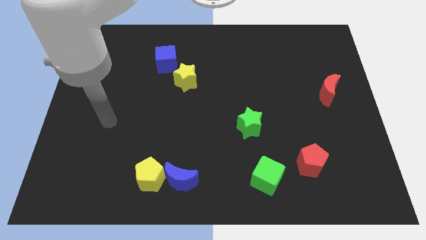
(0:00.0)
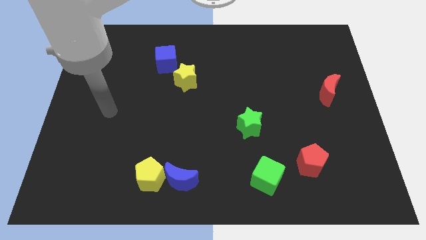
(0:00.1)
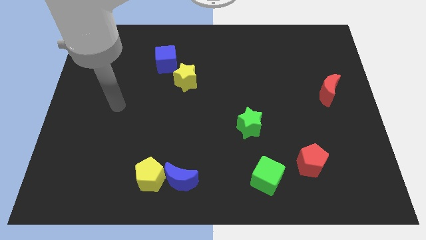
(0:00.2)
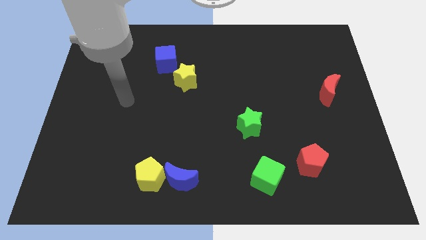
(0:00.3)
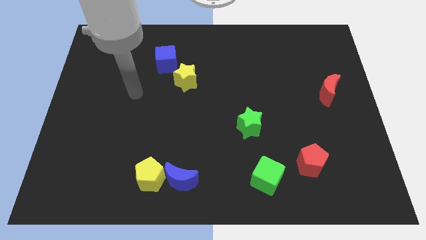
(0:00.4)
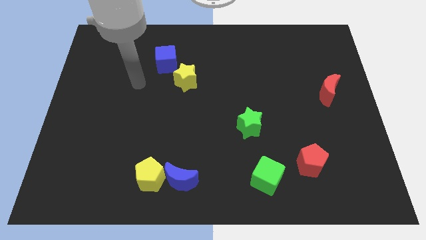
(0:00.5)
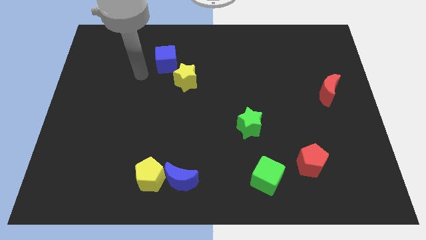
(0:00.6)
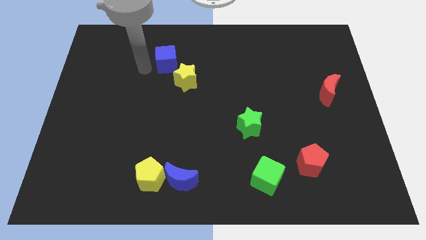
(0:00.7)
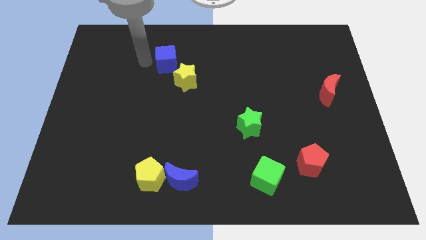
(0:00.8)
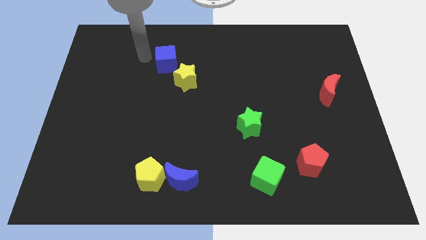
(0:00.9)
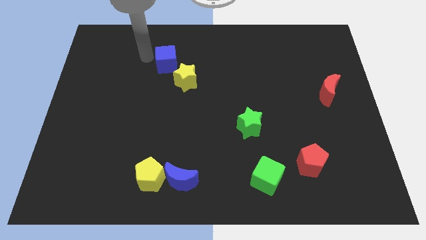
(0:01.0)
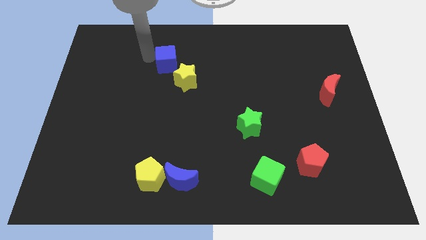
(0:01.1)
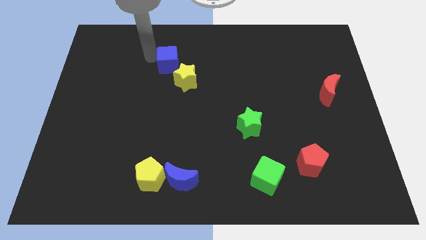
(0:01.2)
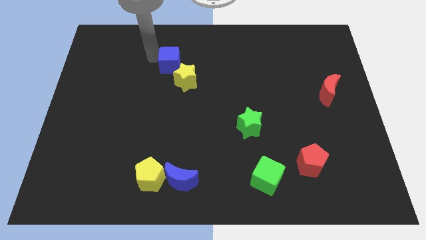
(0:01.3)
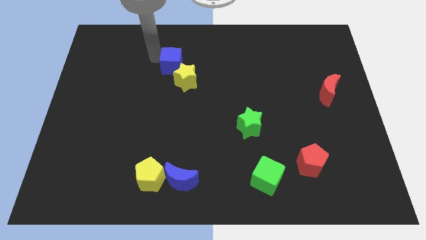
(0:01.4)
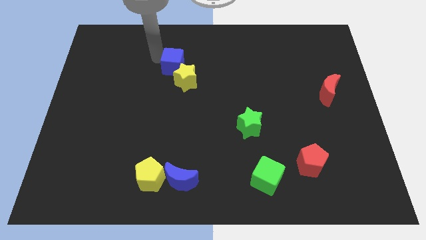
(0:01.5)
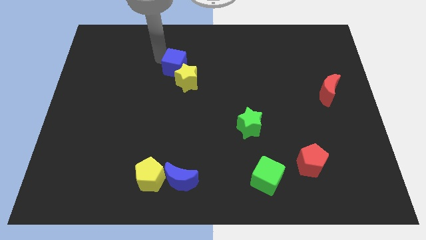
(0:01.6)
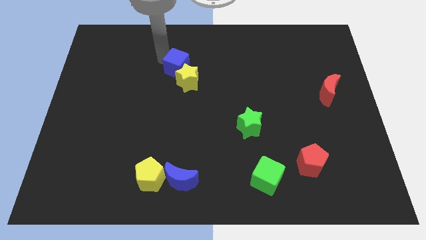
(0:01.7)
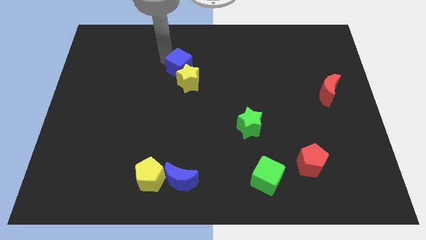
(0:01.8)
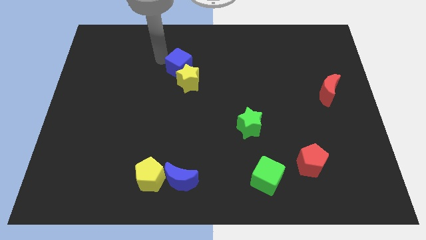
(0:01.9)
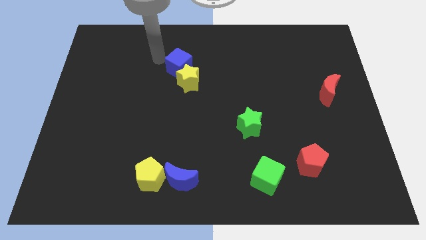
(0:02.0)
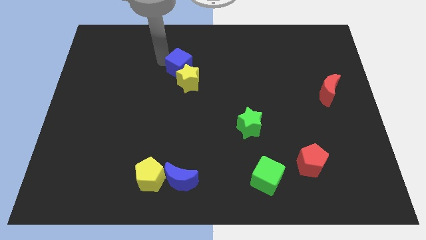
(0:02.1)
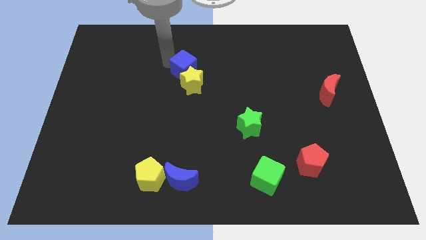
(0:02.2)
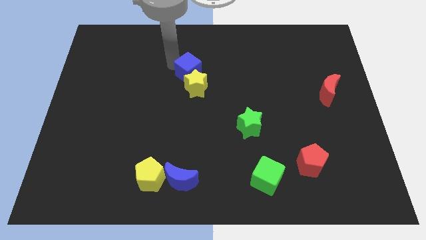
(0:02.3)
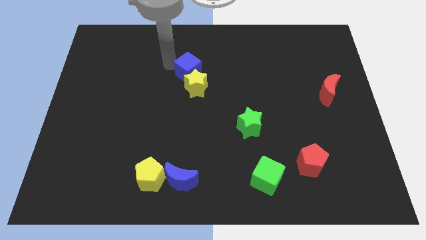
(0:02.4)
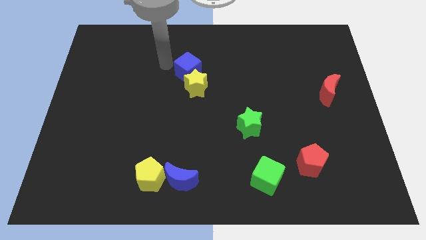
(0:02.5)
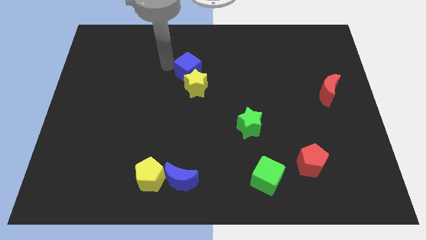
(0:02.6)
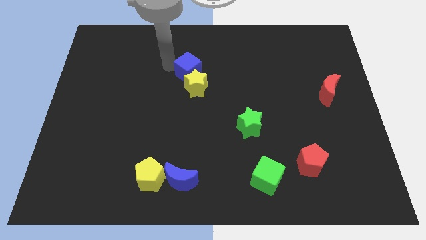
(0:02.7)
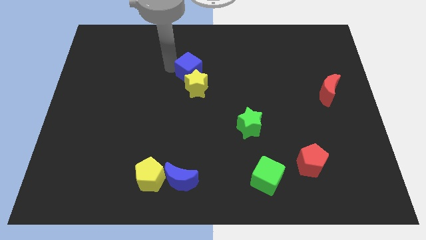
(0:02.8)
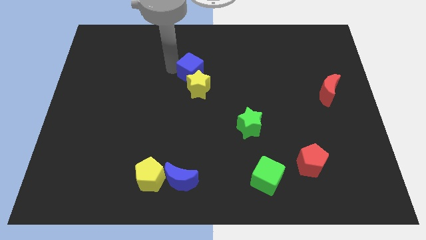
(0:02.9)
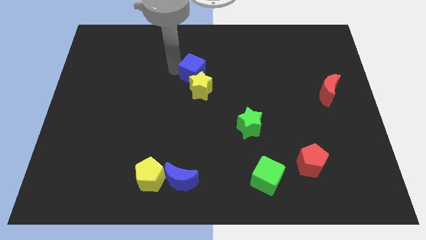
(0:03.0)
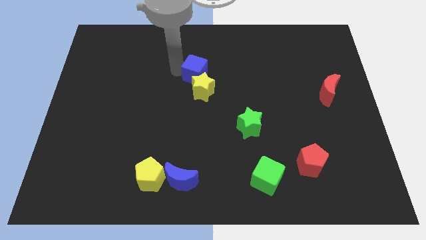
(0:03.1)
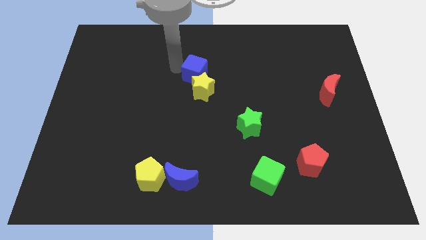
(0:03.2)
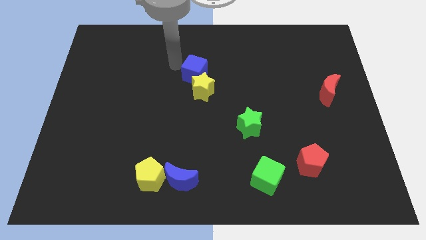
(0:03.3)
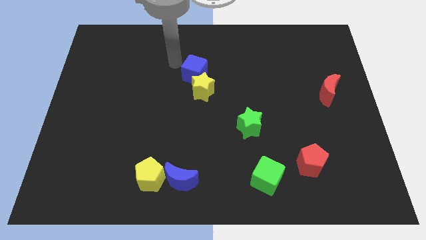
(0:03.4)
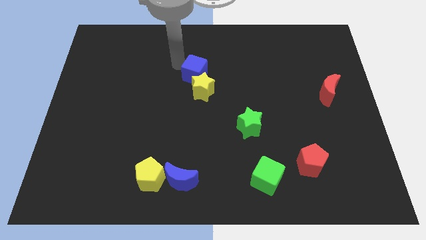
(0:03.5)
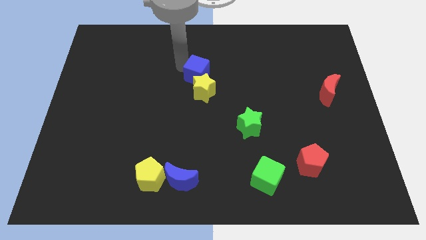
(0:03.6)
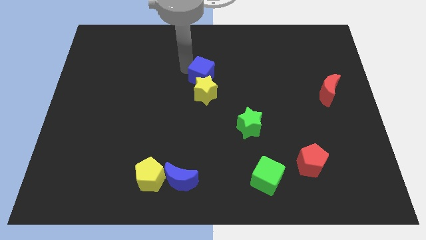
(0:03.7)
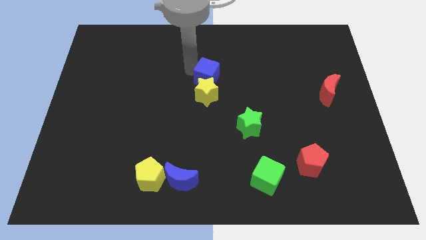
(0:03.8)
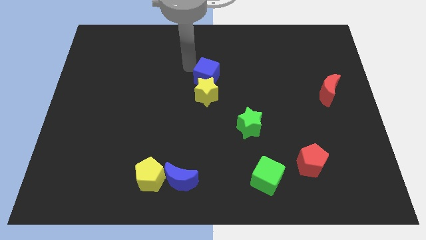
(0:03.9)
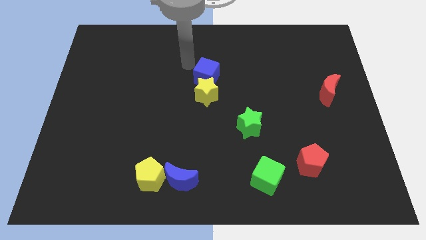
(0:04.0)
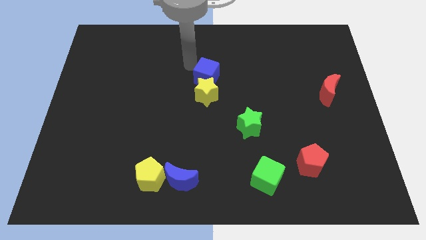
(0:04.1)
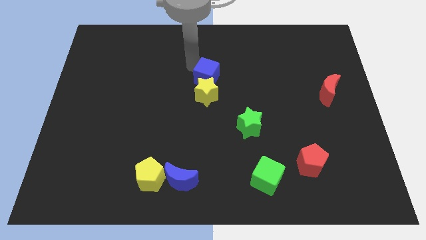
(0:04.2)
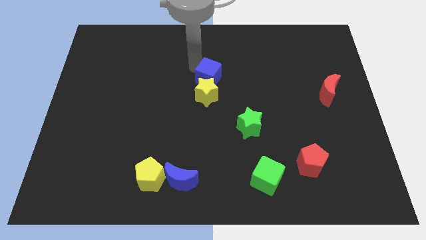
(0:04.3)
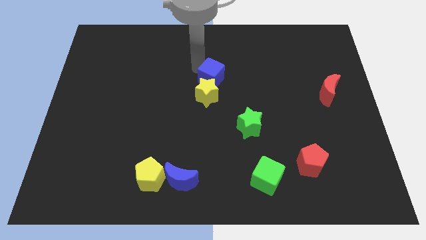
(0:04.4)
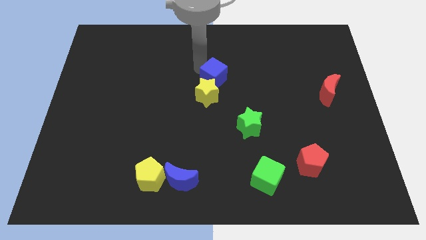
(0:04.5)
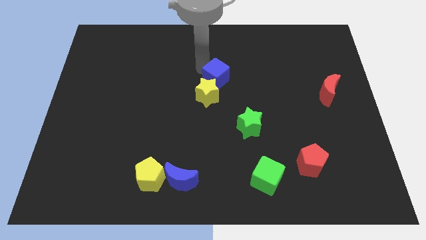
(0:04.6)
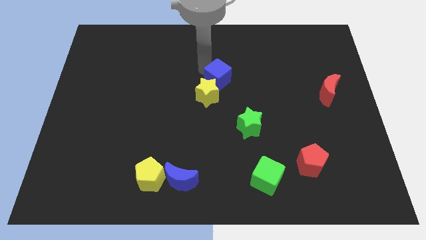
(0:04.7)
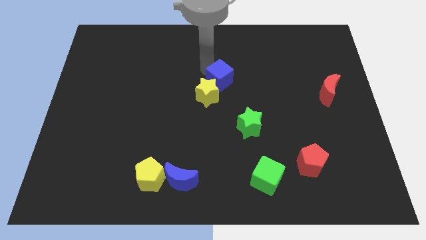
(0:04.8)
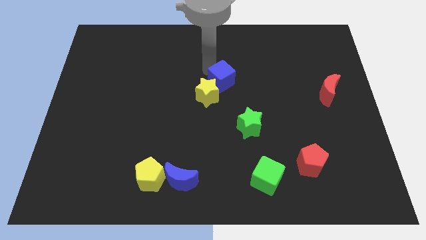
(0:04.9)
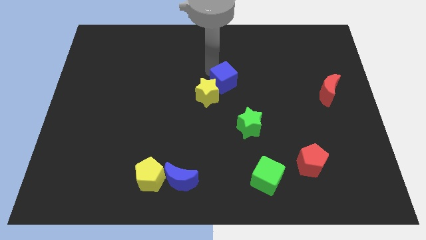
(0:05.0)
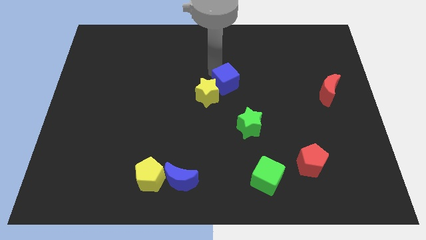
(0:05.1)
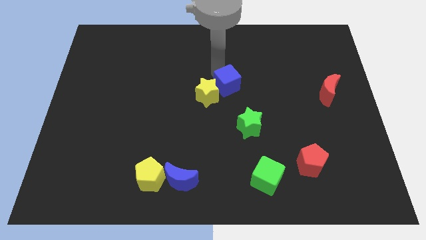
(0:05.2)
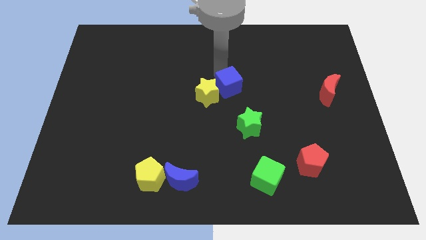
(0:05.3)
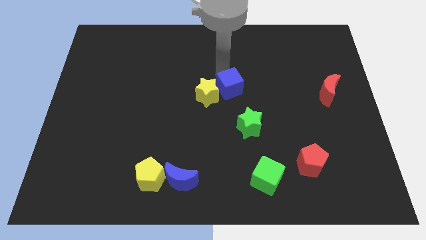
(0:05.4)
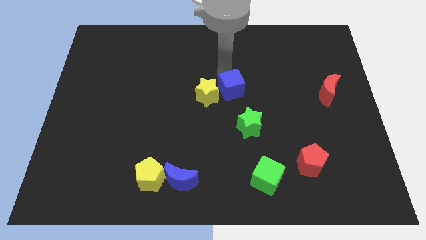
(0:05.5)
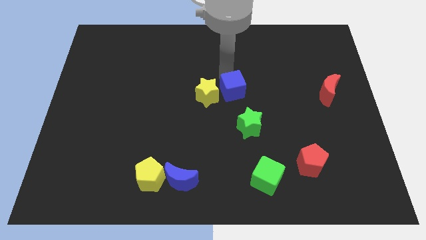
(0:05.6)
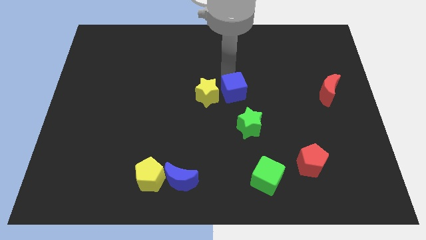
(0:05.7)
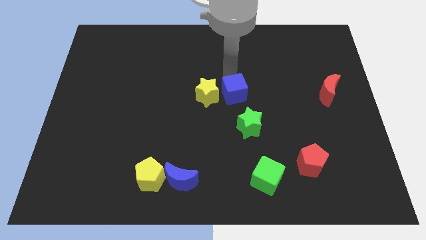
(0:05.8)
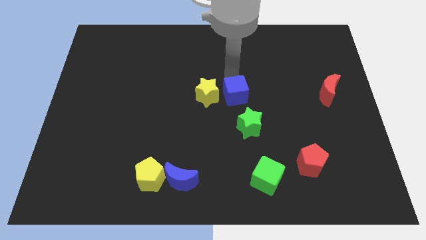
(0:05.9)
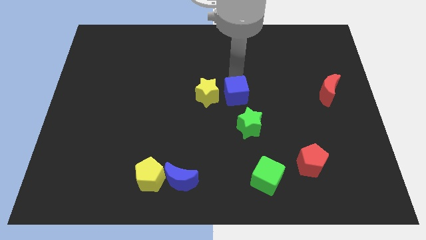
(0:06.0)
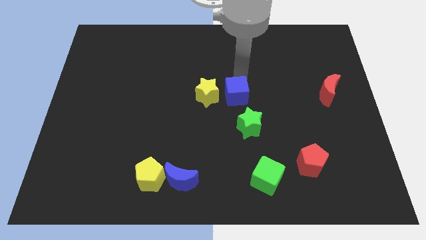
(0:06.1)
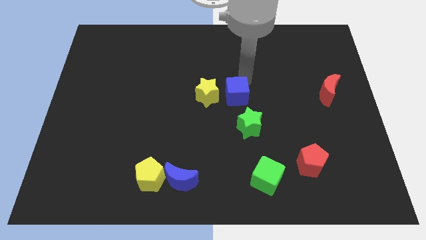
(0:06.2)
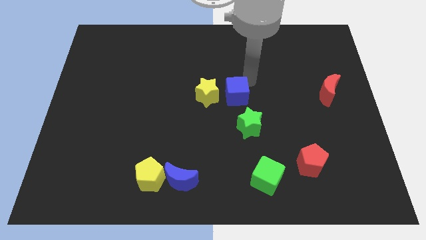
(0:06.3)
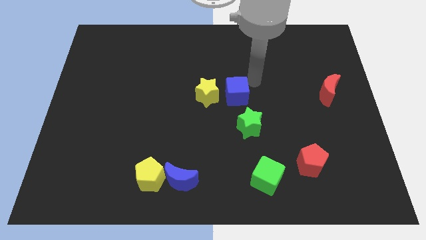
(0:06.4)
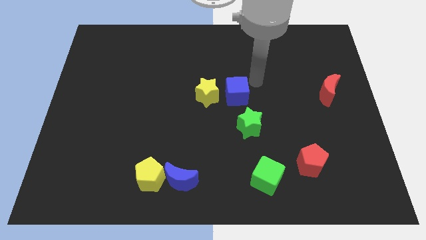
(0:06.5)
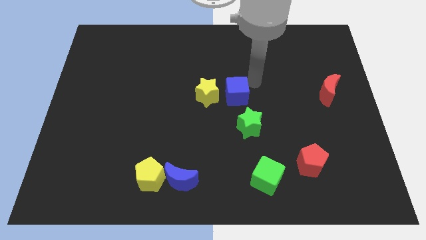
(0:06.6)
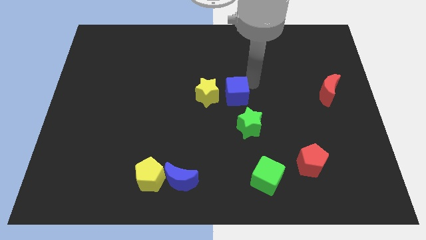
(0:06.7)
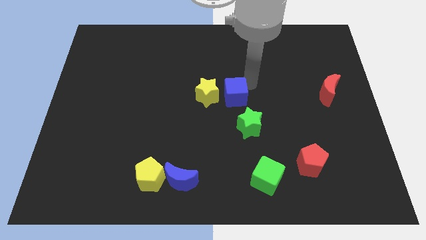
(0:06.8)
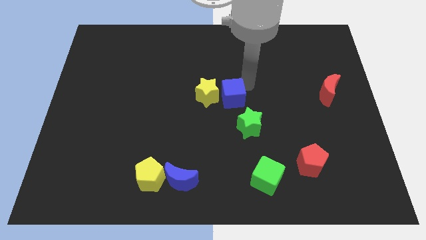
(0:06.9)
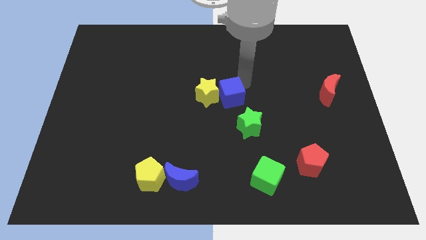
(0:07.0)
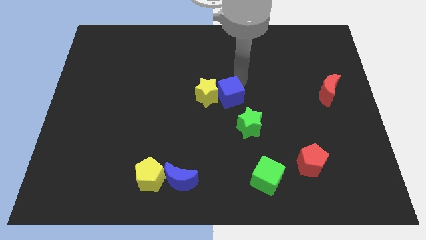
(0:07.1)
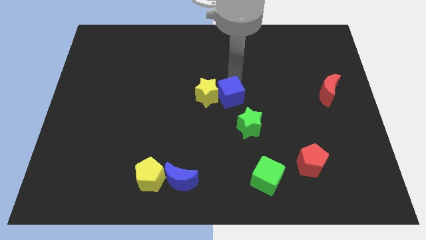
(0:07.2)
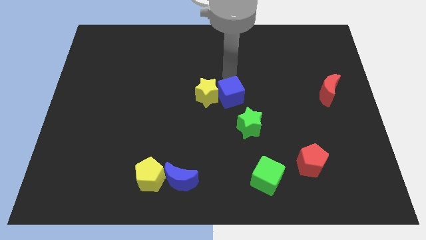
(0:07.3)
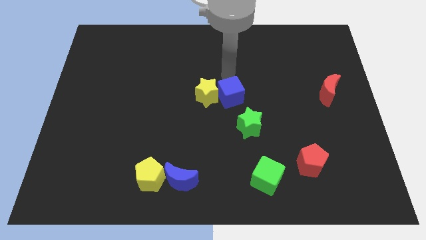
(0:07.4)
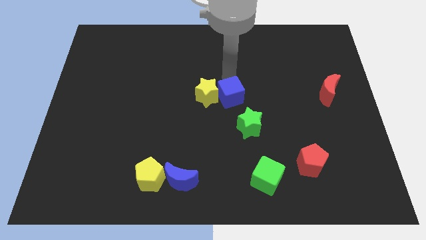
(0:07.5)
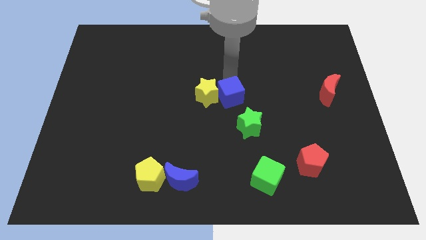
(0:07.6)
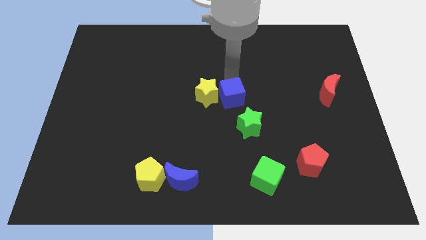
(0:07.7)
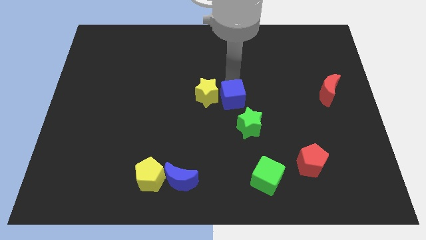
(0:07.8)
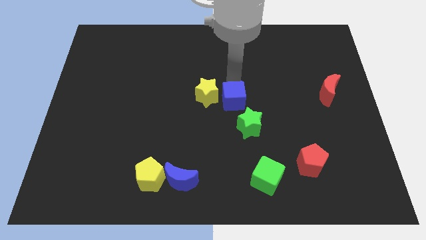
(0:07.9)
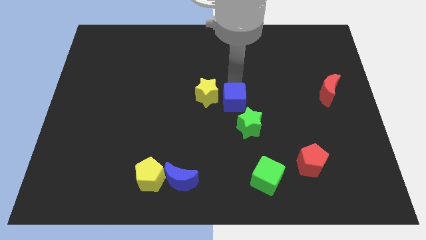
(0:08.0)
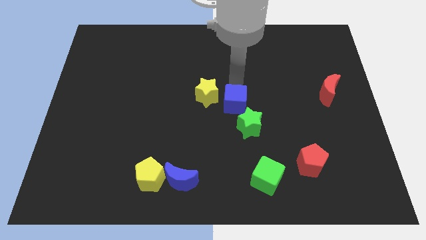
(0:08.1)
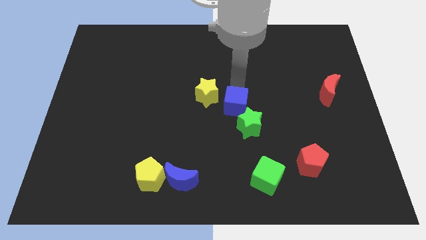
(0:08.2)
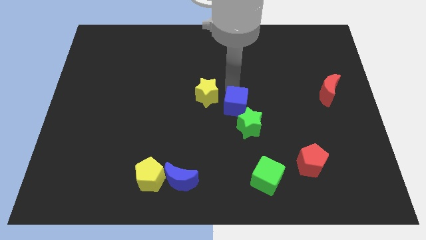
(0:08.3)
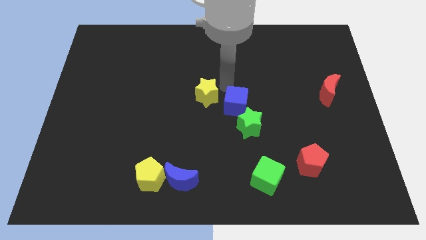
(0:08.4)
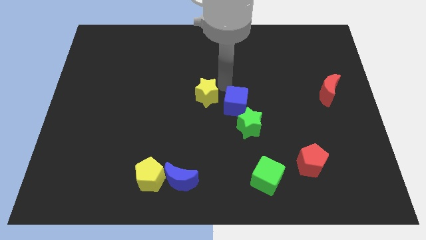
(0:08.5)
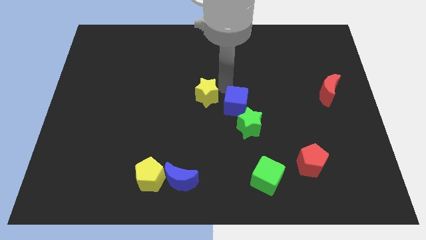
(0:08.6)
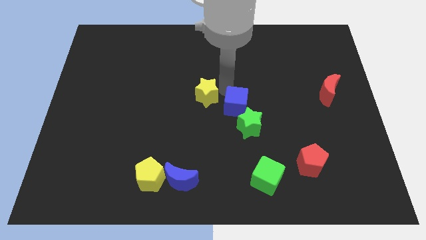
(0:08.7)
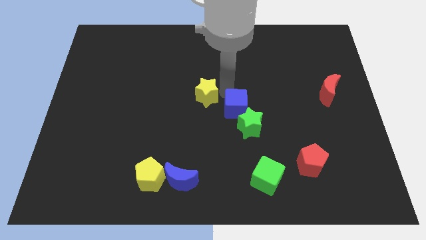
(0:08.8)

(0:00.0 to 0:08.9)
push the blue cube to the green star
